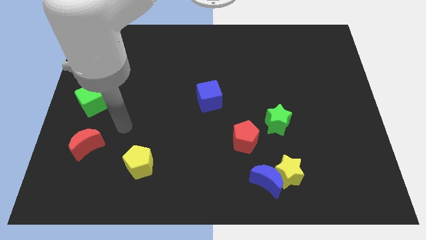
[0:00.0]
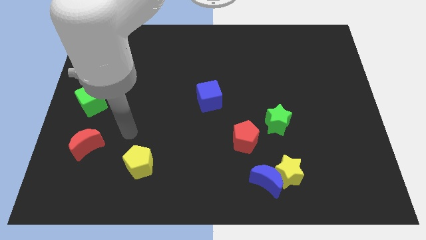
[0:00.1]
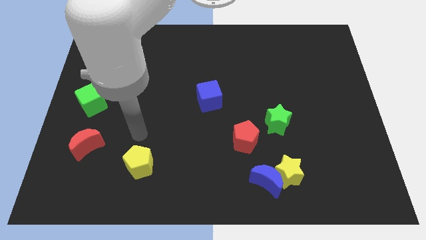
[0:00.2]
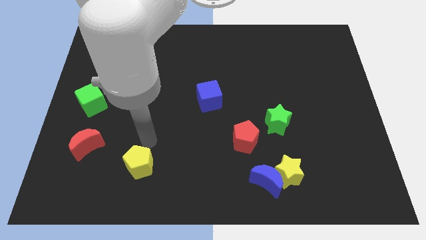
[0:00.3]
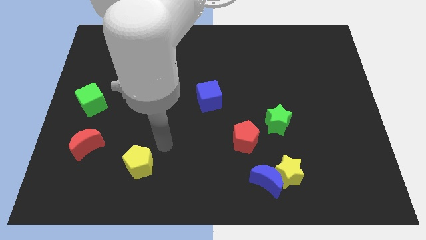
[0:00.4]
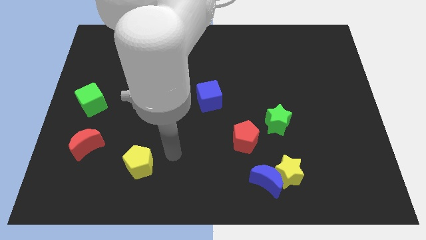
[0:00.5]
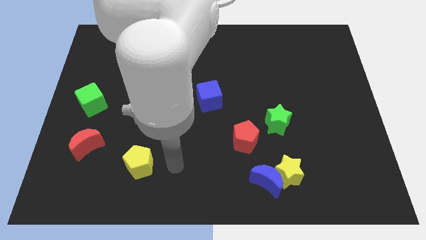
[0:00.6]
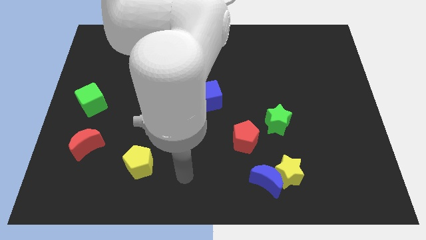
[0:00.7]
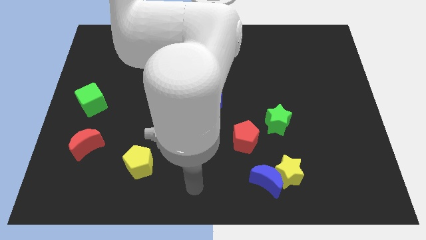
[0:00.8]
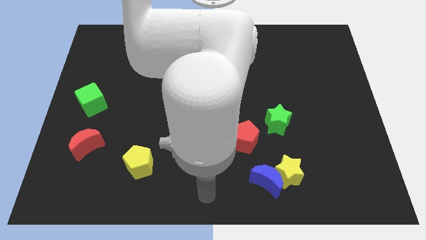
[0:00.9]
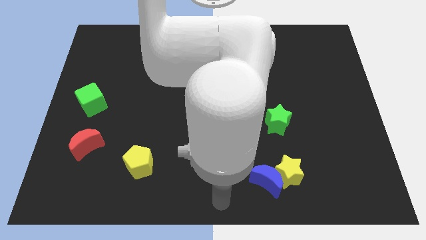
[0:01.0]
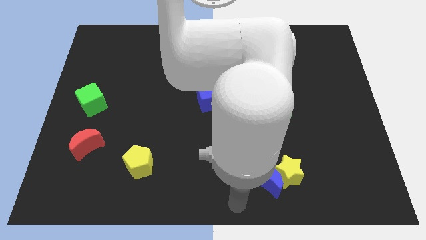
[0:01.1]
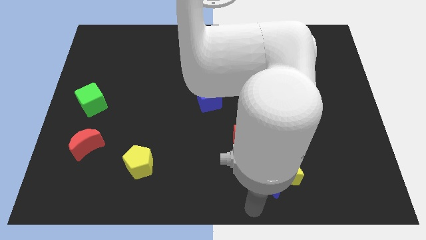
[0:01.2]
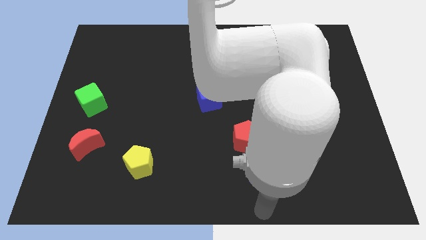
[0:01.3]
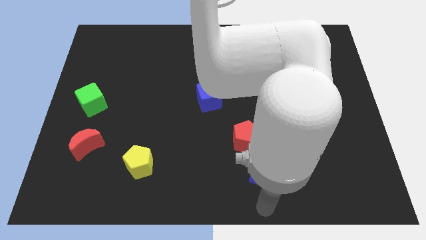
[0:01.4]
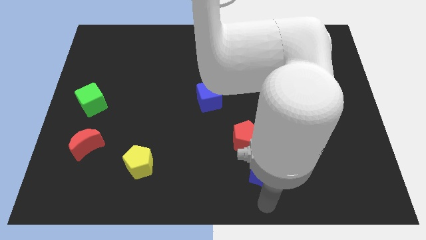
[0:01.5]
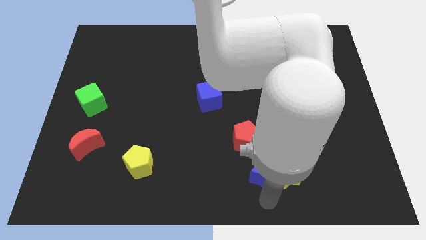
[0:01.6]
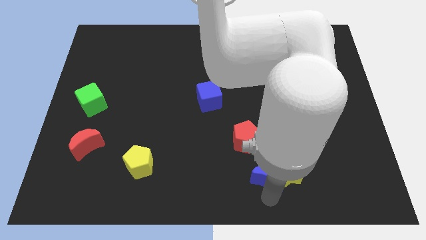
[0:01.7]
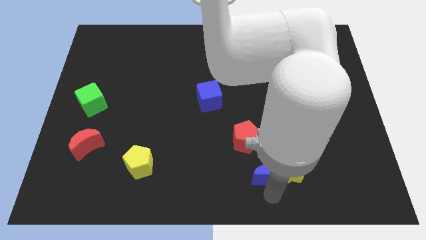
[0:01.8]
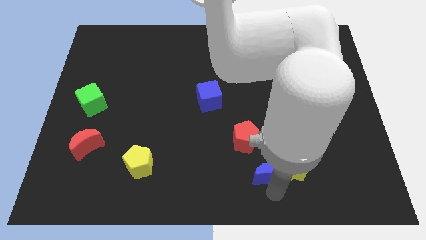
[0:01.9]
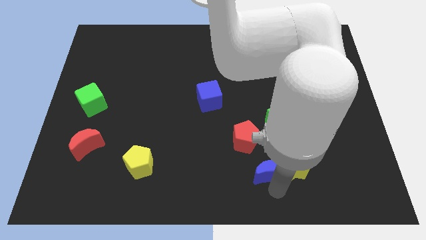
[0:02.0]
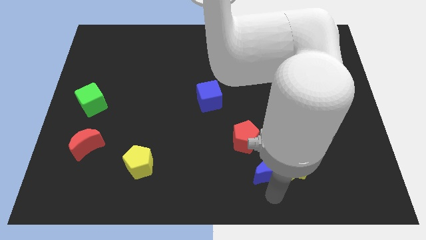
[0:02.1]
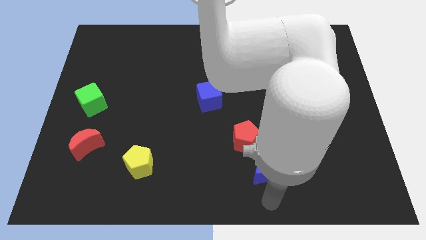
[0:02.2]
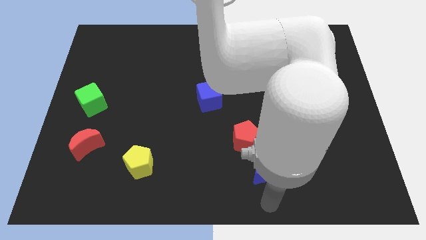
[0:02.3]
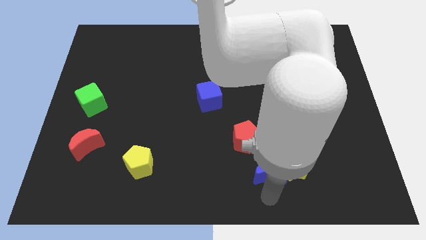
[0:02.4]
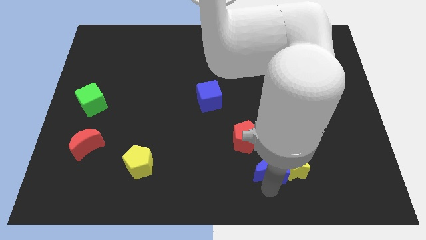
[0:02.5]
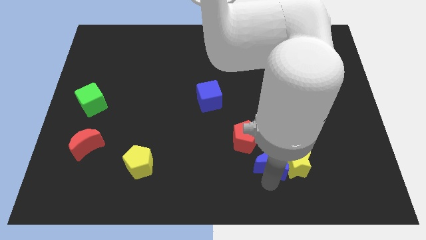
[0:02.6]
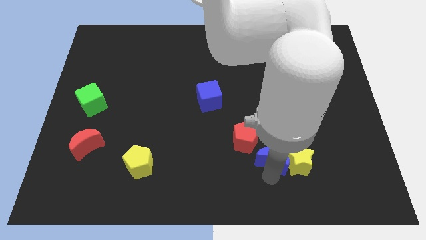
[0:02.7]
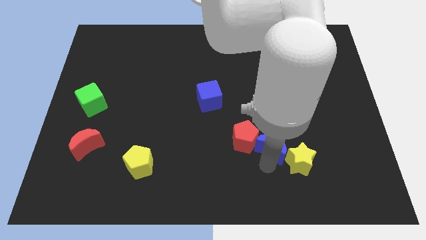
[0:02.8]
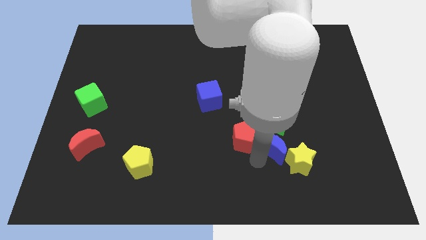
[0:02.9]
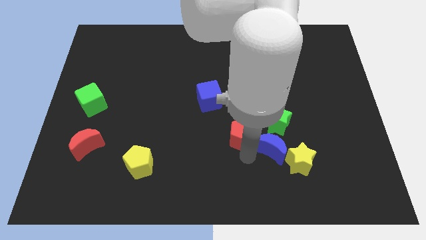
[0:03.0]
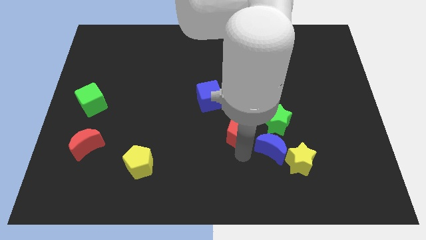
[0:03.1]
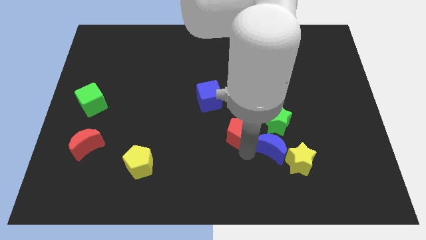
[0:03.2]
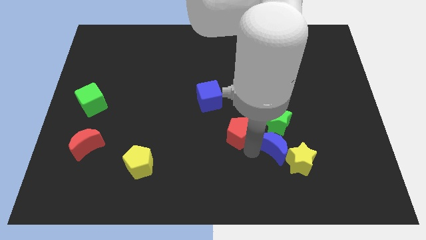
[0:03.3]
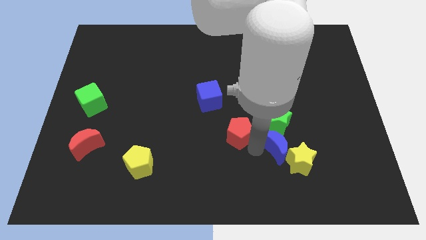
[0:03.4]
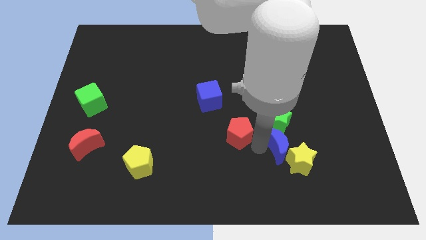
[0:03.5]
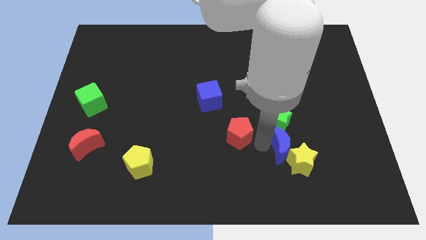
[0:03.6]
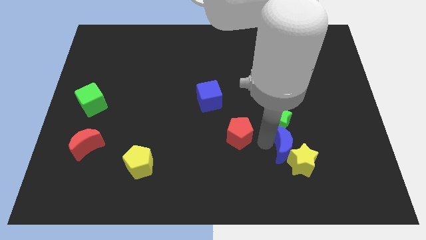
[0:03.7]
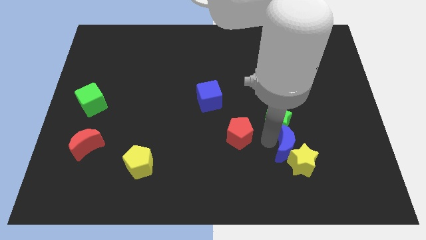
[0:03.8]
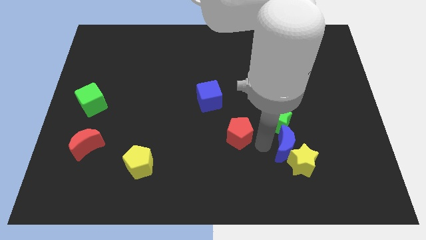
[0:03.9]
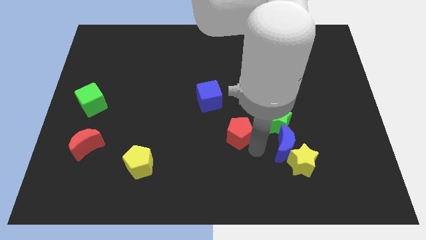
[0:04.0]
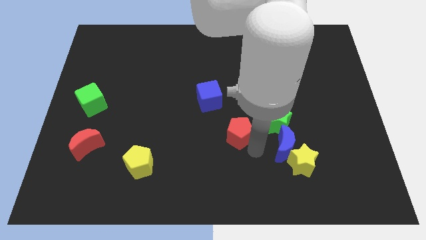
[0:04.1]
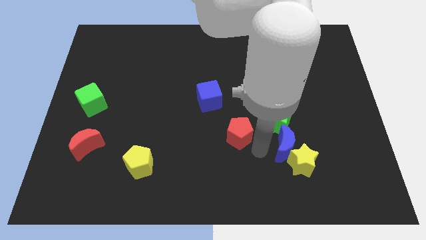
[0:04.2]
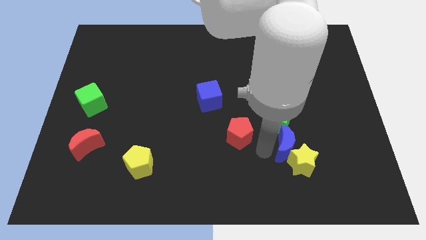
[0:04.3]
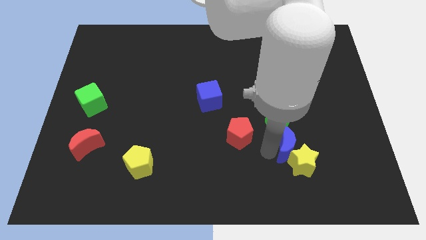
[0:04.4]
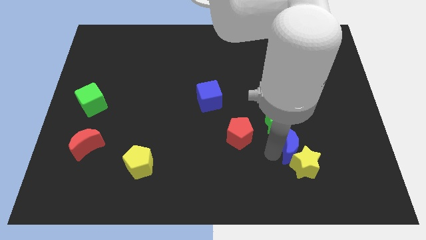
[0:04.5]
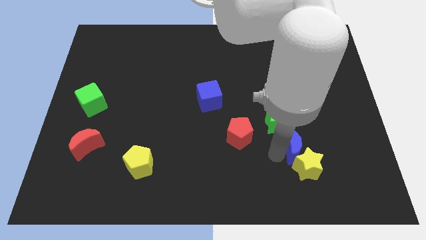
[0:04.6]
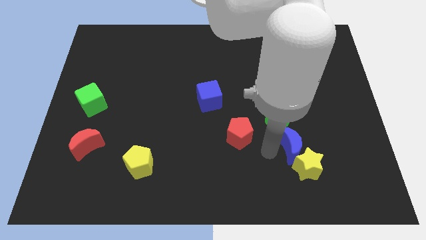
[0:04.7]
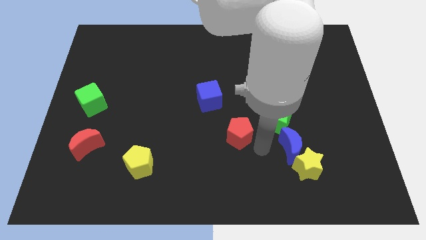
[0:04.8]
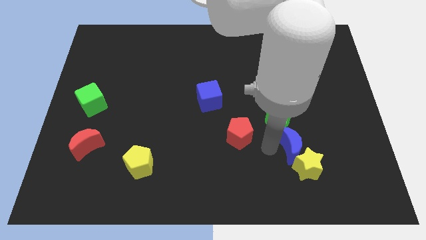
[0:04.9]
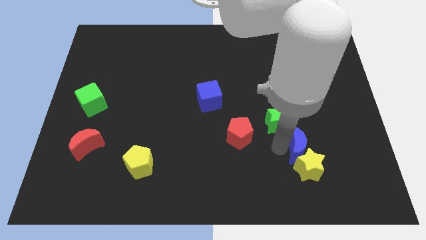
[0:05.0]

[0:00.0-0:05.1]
move the blue moon diagonally up and to the right of the yellow star

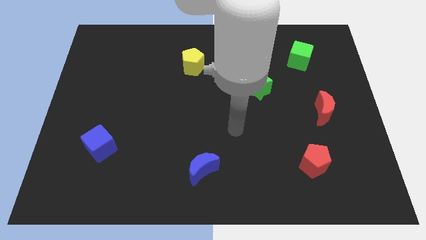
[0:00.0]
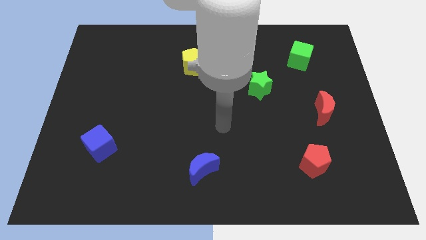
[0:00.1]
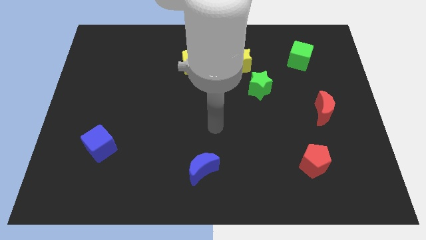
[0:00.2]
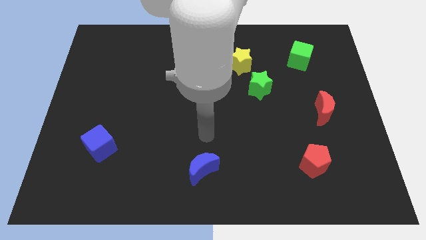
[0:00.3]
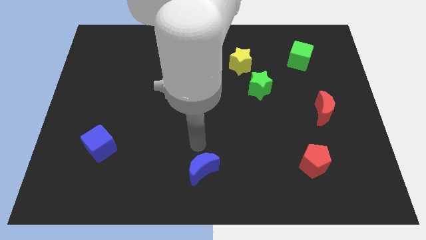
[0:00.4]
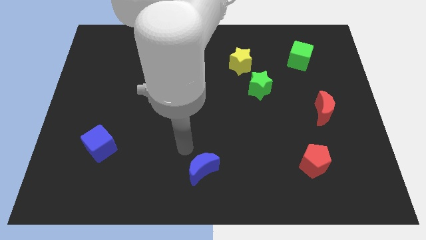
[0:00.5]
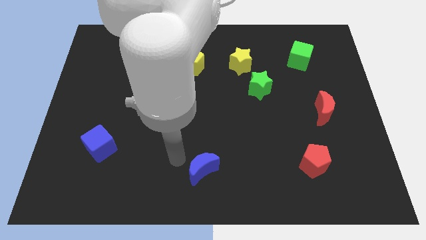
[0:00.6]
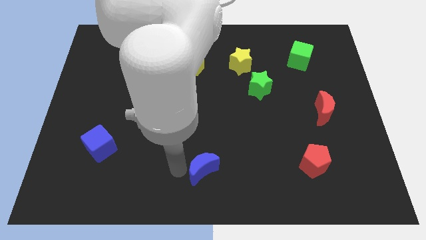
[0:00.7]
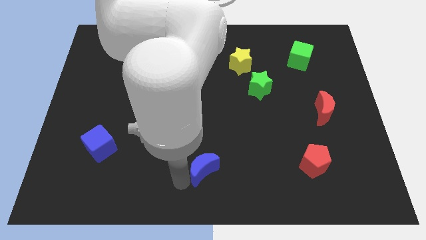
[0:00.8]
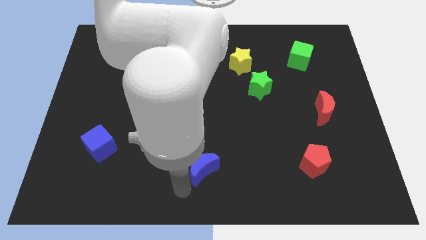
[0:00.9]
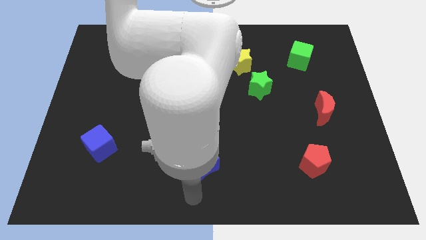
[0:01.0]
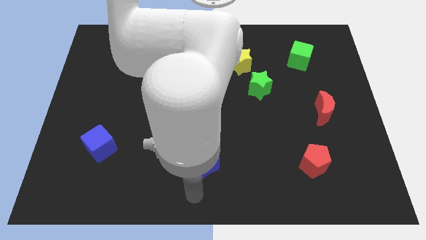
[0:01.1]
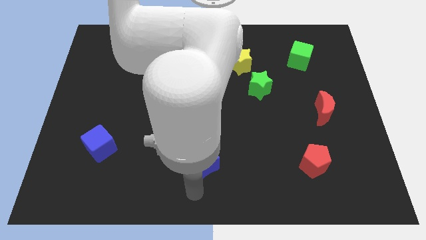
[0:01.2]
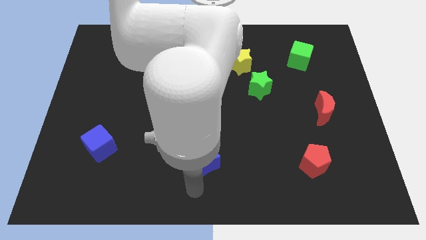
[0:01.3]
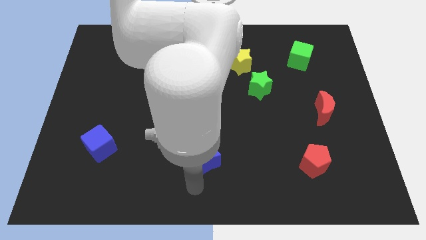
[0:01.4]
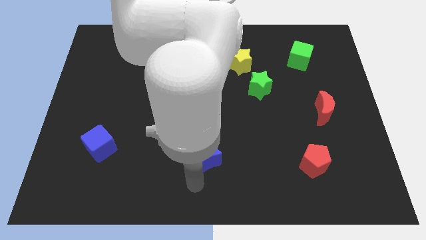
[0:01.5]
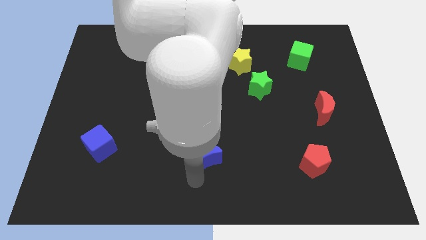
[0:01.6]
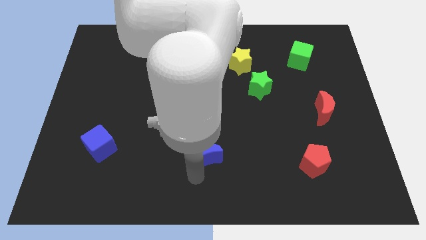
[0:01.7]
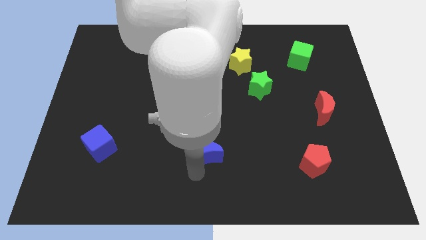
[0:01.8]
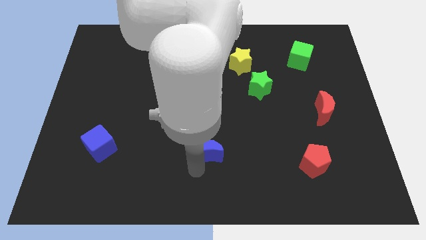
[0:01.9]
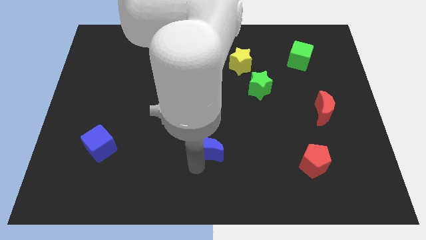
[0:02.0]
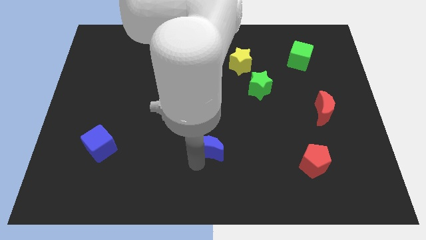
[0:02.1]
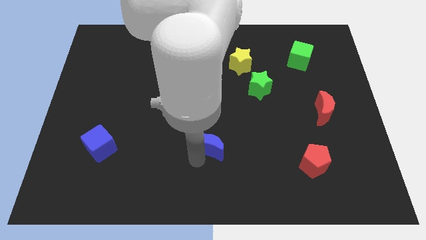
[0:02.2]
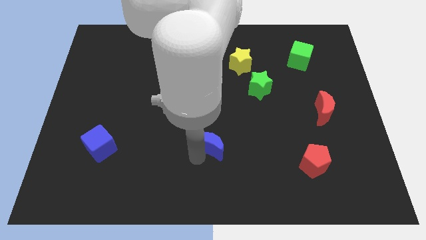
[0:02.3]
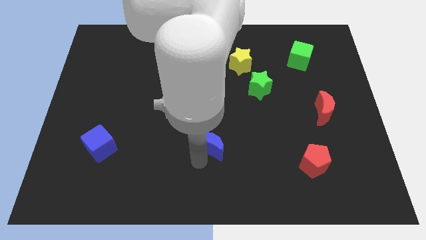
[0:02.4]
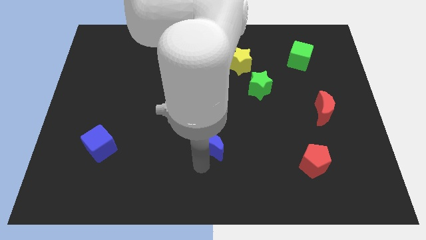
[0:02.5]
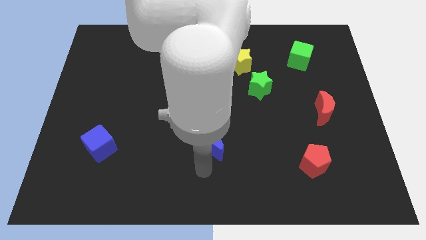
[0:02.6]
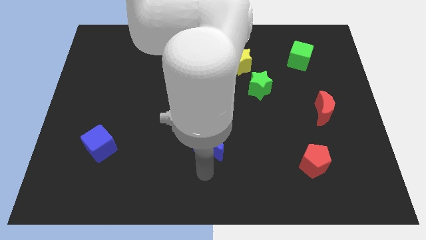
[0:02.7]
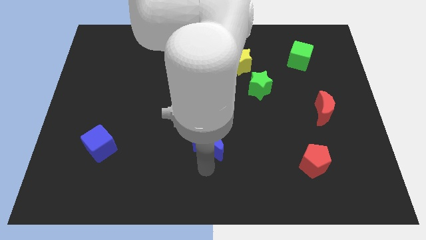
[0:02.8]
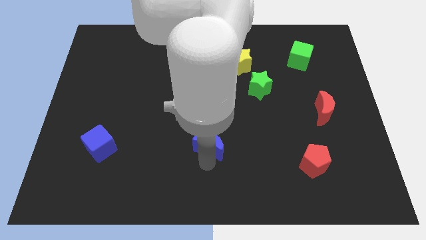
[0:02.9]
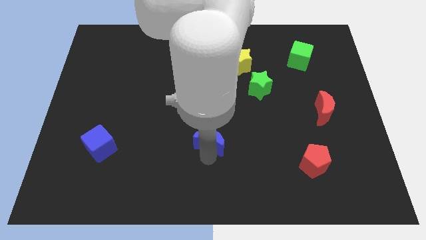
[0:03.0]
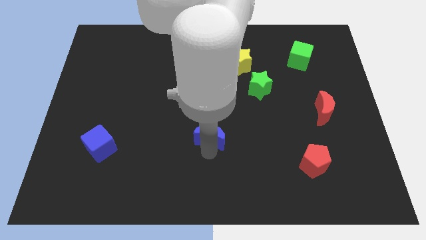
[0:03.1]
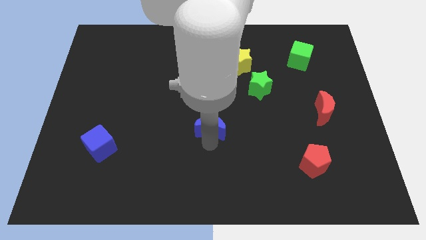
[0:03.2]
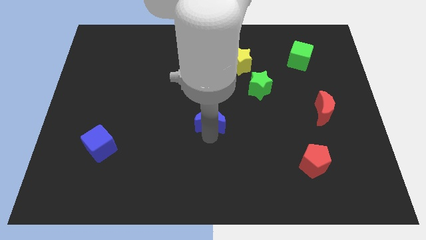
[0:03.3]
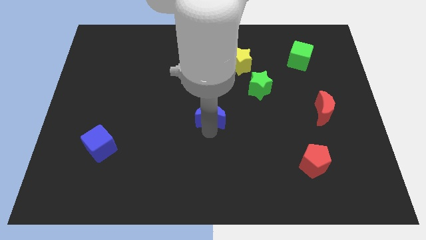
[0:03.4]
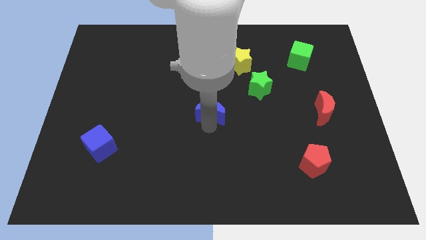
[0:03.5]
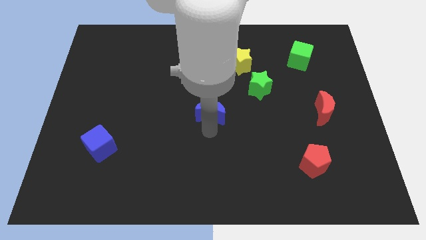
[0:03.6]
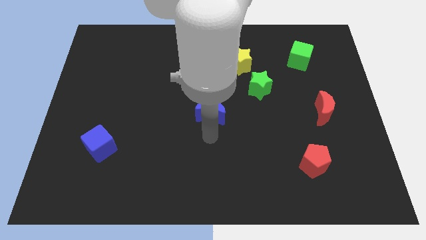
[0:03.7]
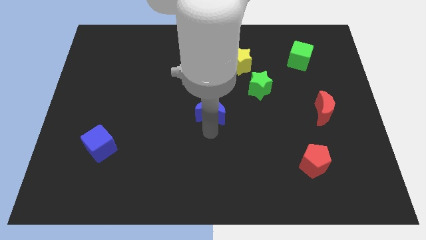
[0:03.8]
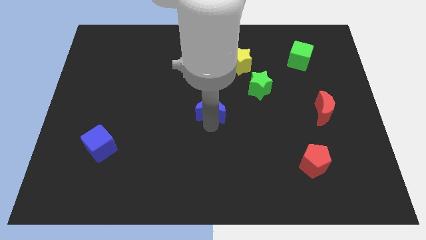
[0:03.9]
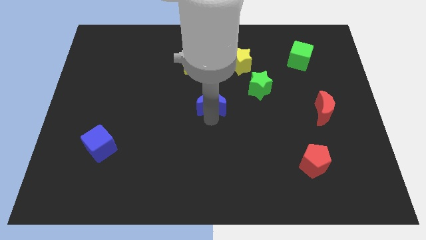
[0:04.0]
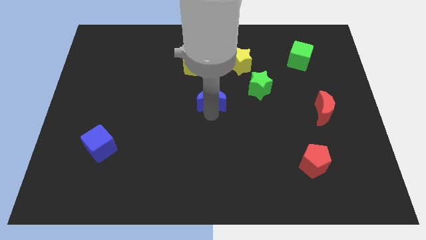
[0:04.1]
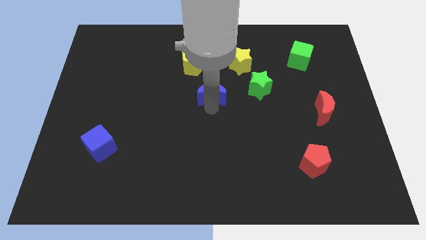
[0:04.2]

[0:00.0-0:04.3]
move the blue moon to the bottom right of the yellow pentagon
